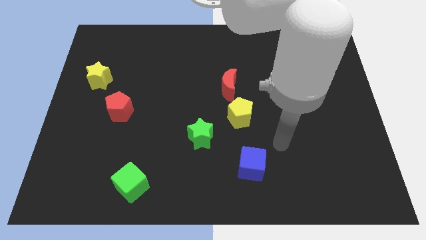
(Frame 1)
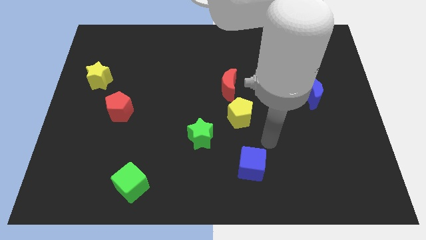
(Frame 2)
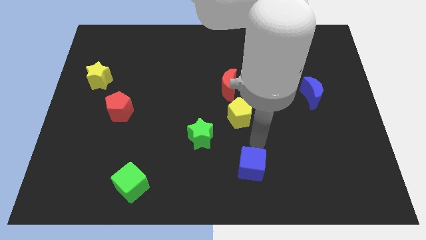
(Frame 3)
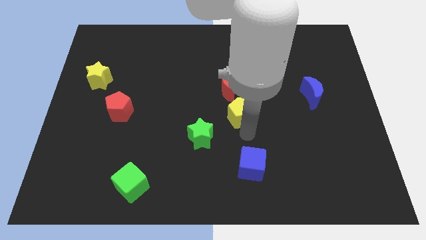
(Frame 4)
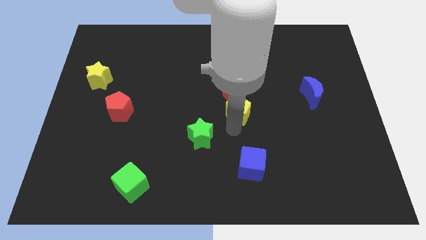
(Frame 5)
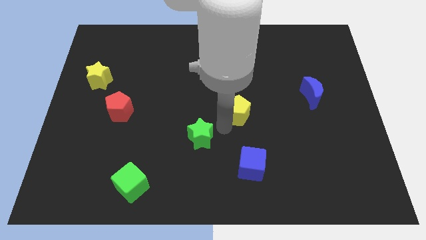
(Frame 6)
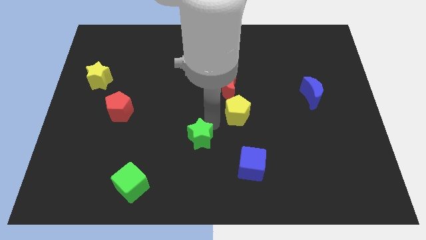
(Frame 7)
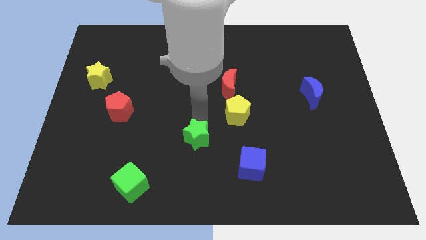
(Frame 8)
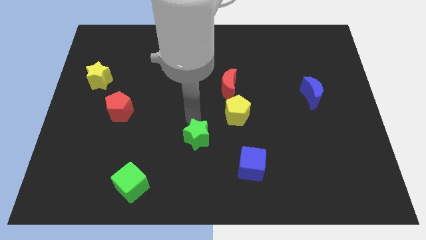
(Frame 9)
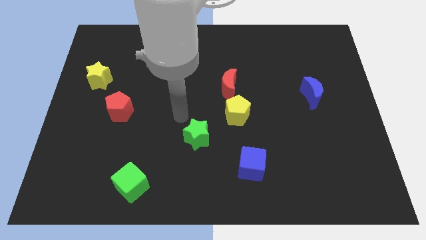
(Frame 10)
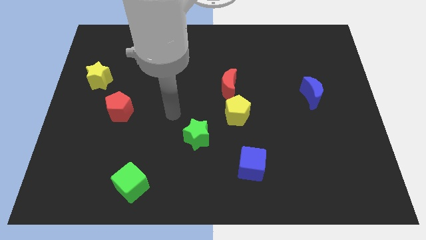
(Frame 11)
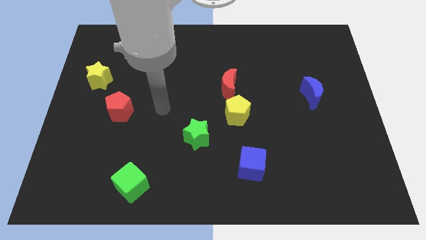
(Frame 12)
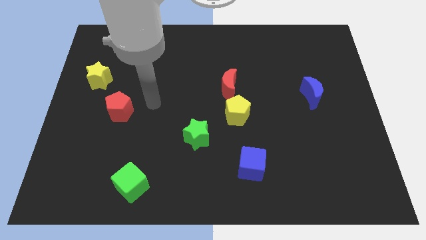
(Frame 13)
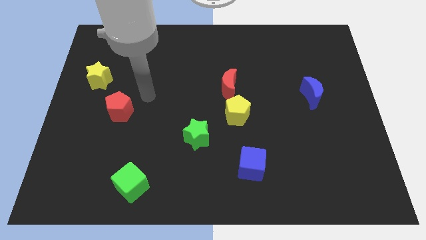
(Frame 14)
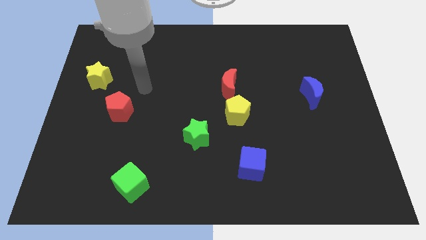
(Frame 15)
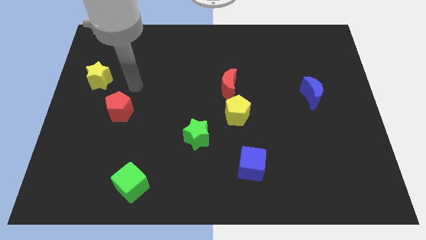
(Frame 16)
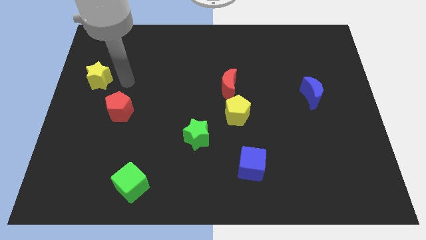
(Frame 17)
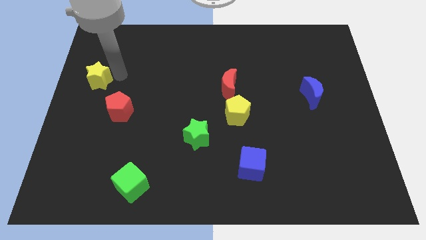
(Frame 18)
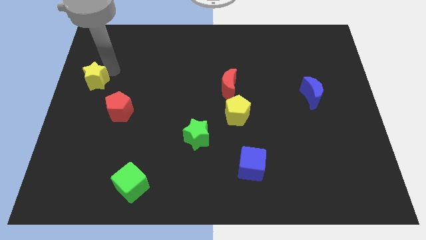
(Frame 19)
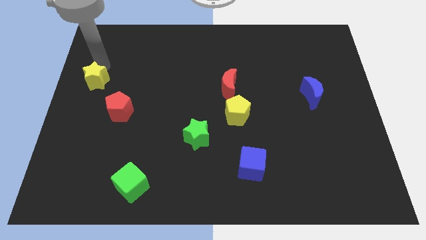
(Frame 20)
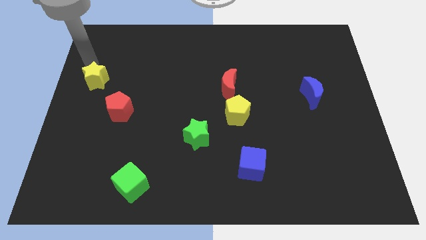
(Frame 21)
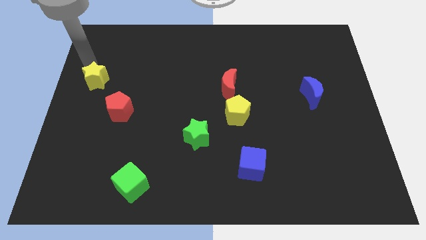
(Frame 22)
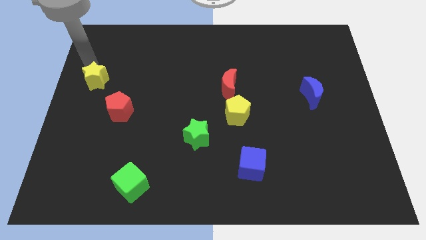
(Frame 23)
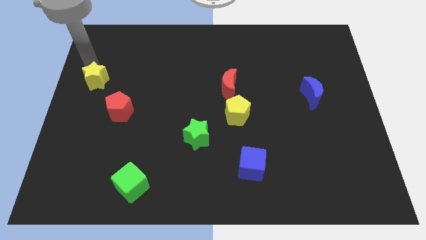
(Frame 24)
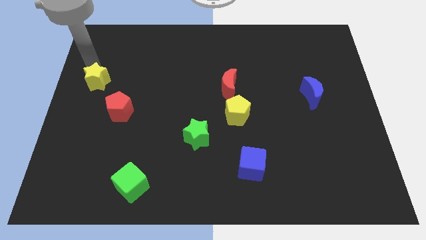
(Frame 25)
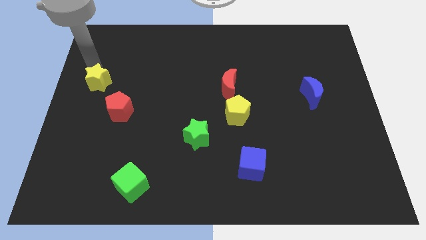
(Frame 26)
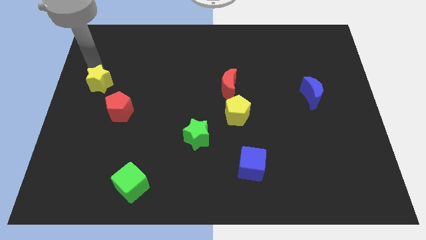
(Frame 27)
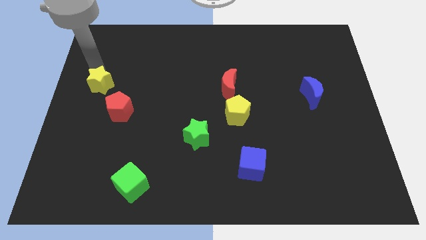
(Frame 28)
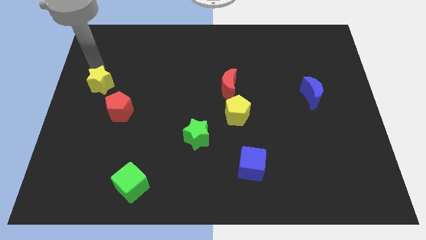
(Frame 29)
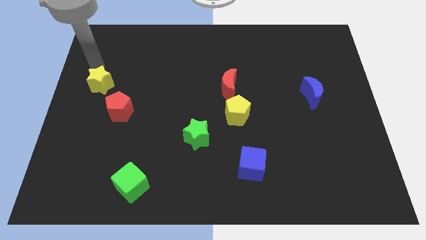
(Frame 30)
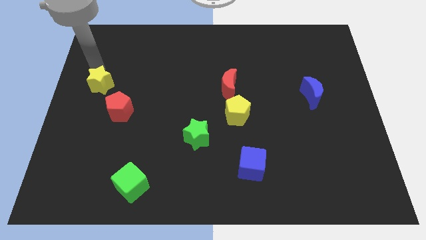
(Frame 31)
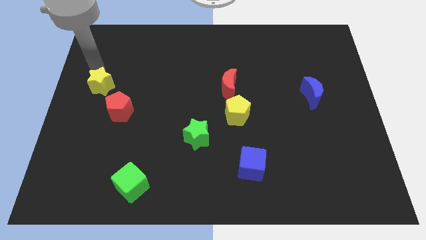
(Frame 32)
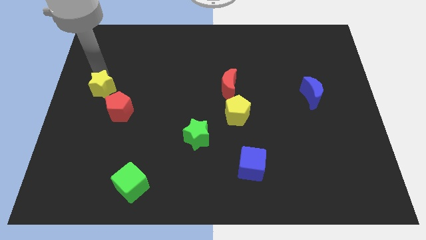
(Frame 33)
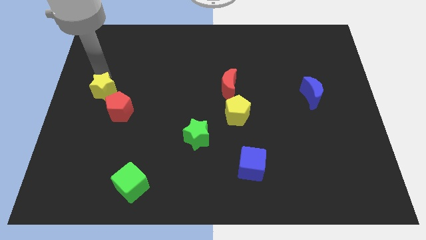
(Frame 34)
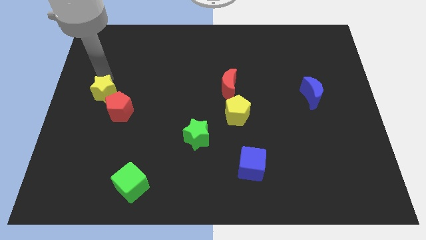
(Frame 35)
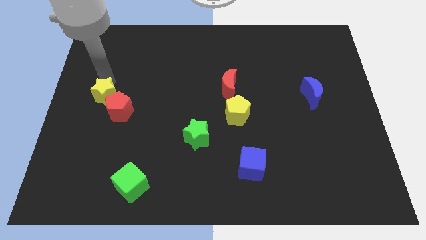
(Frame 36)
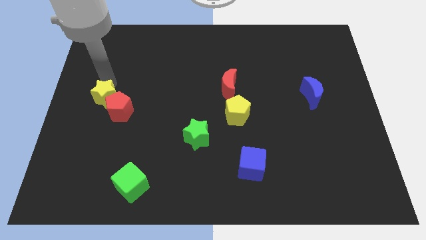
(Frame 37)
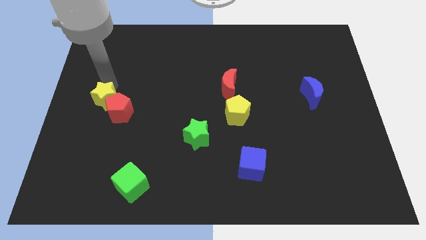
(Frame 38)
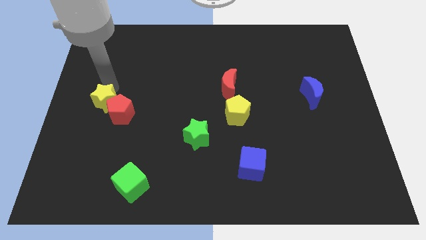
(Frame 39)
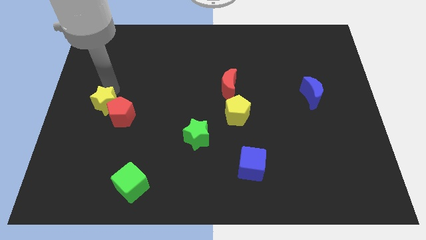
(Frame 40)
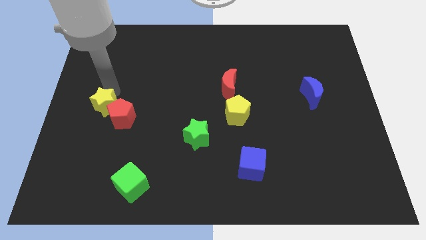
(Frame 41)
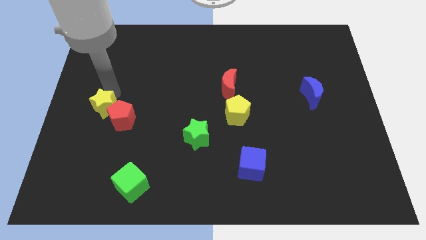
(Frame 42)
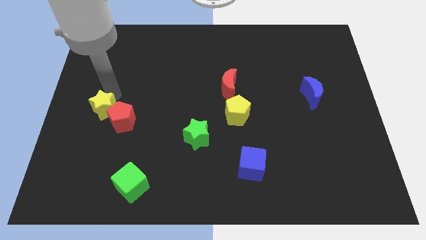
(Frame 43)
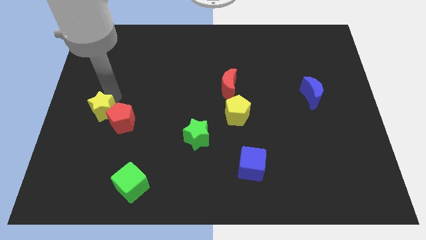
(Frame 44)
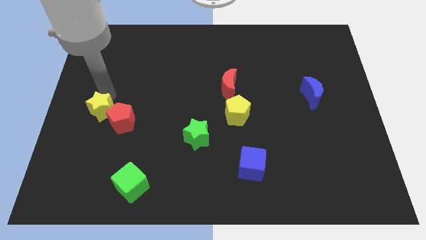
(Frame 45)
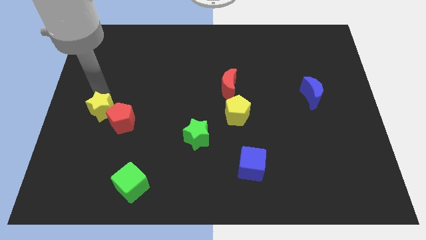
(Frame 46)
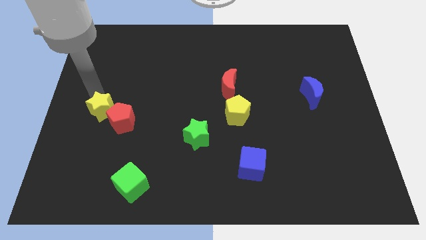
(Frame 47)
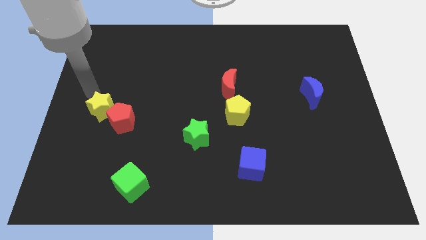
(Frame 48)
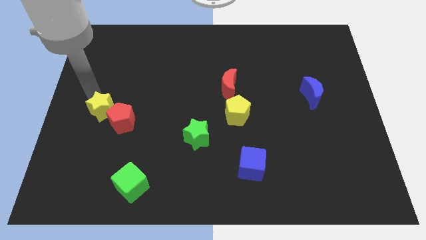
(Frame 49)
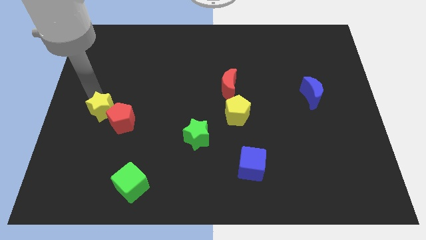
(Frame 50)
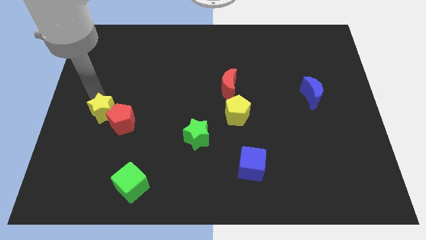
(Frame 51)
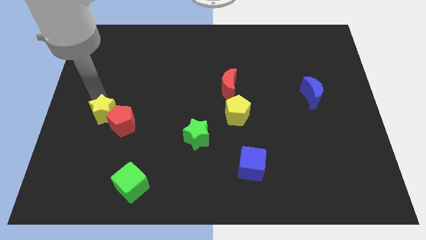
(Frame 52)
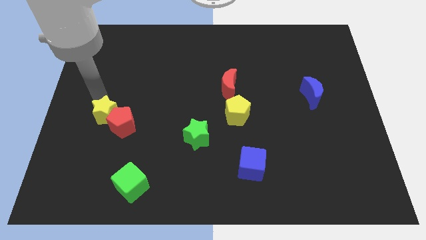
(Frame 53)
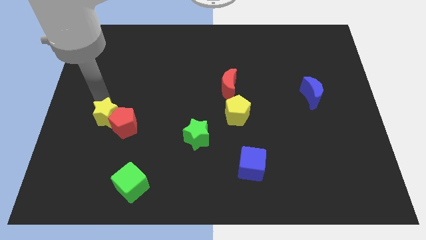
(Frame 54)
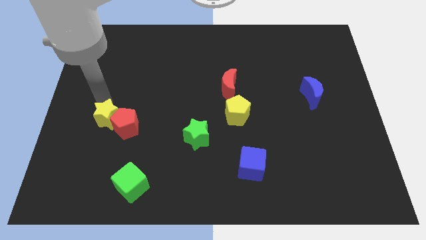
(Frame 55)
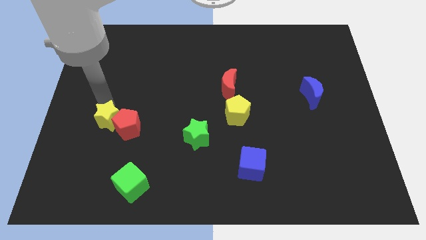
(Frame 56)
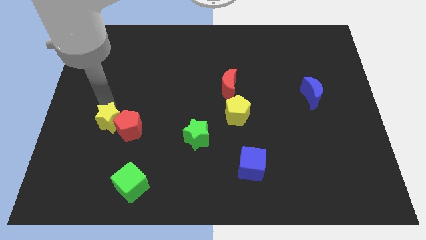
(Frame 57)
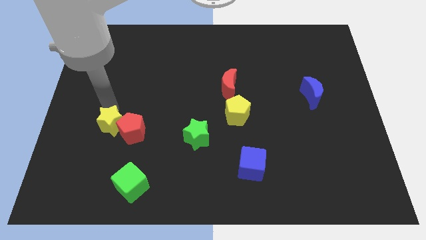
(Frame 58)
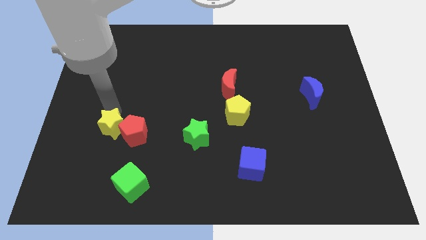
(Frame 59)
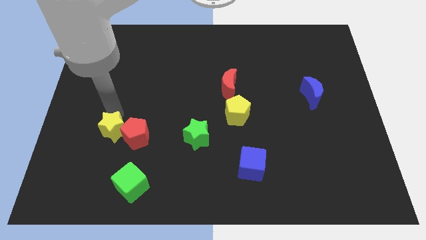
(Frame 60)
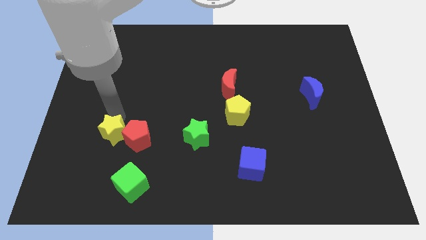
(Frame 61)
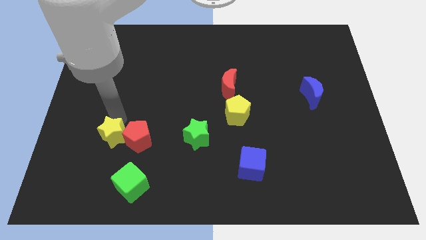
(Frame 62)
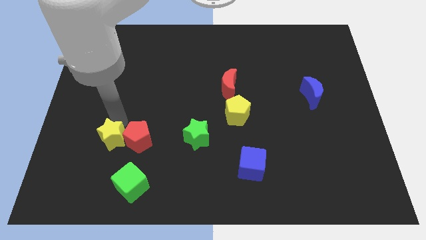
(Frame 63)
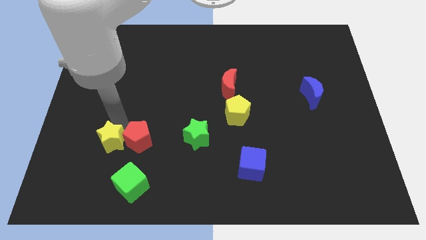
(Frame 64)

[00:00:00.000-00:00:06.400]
move the yellow star to the top left of the green cube

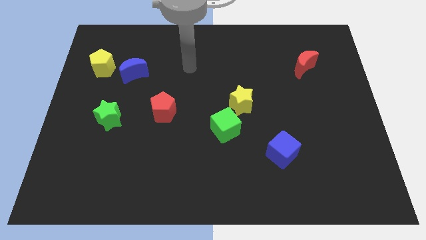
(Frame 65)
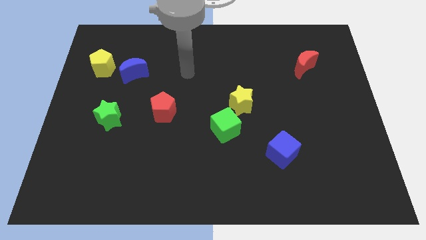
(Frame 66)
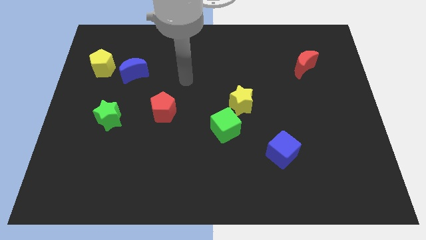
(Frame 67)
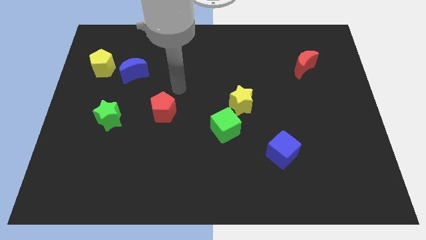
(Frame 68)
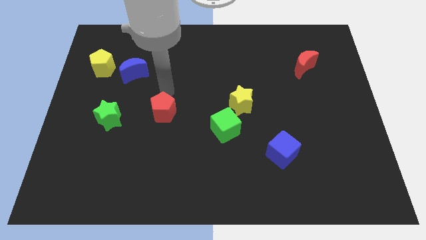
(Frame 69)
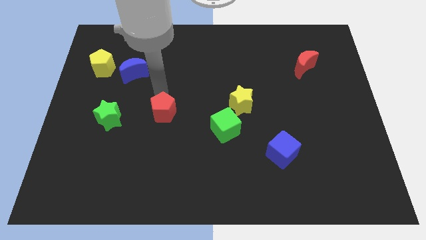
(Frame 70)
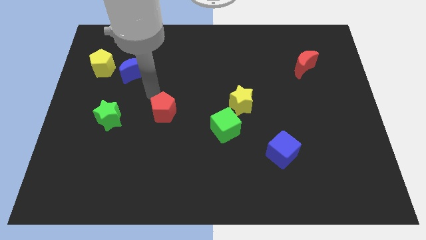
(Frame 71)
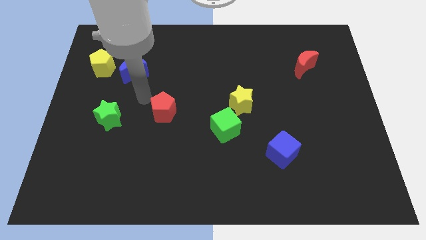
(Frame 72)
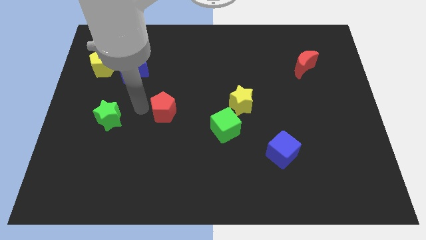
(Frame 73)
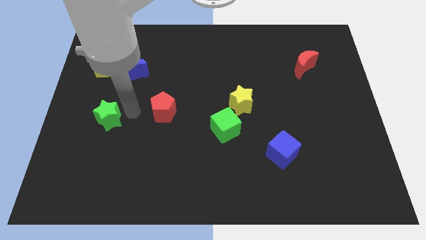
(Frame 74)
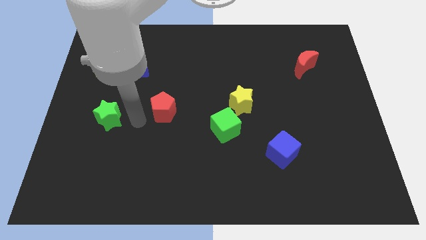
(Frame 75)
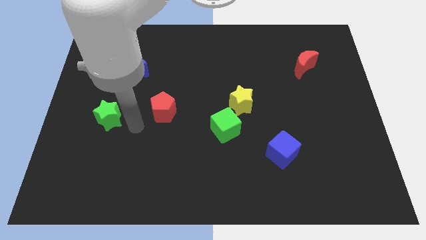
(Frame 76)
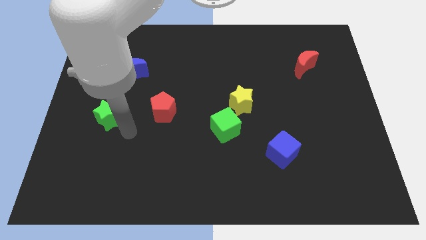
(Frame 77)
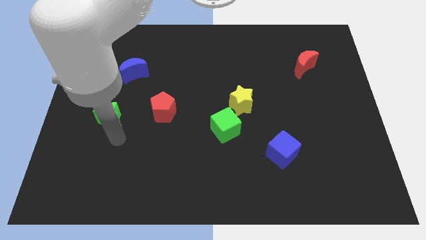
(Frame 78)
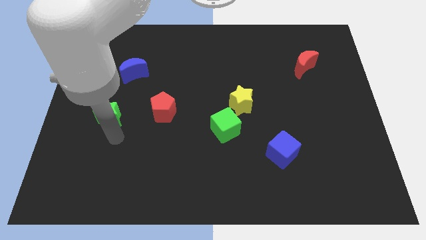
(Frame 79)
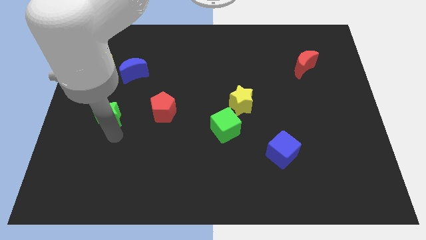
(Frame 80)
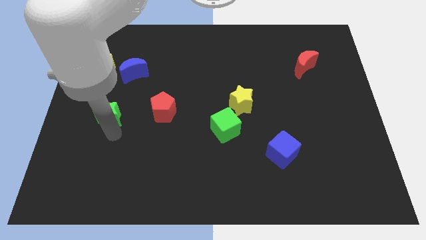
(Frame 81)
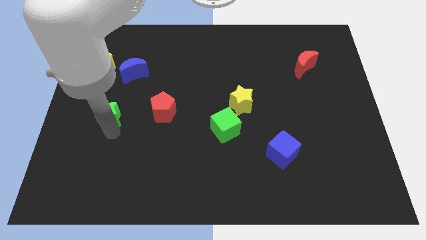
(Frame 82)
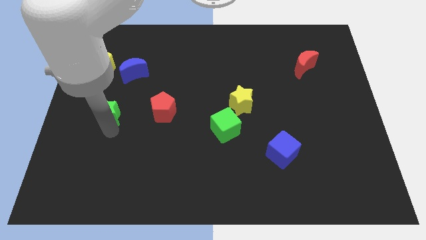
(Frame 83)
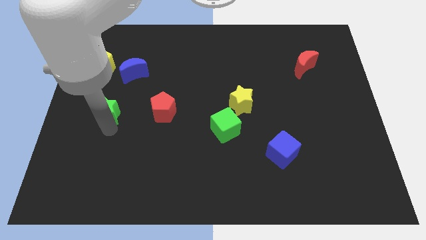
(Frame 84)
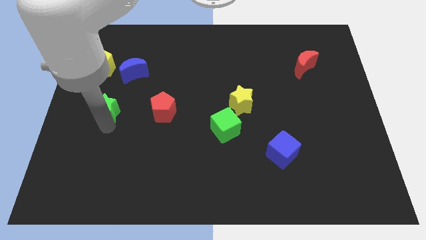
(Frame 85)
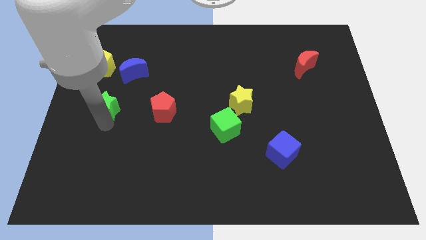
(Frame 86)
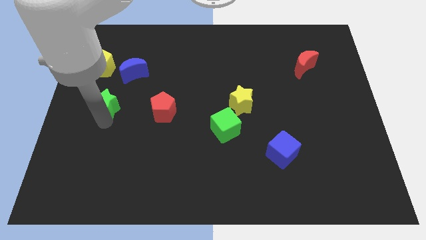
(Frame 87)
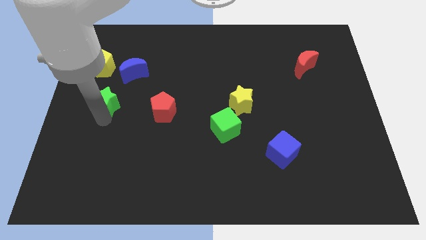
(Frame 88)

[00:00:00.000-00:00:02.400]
push the green star to the bottom left of the blue moon
